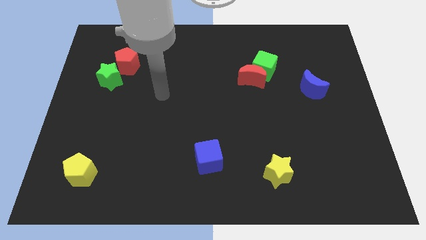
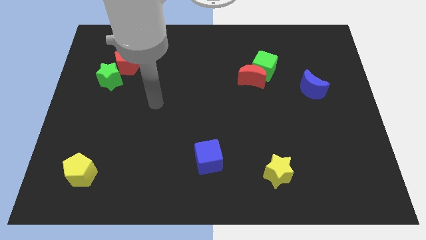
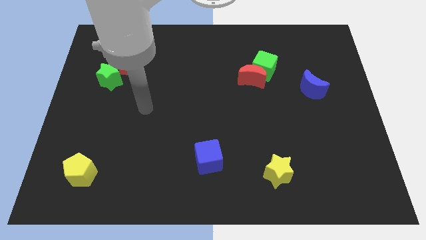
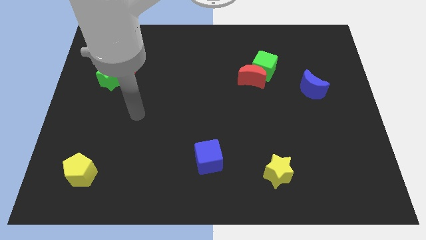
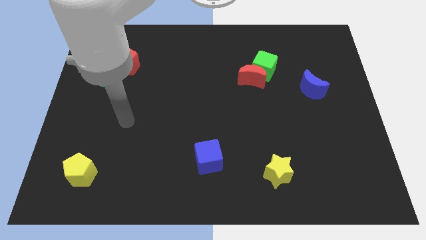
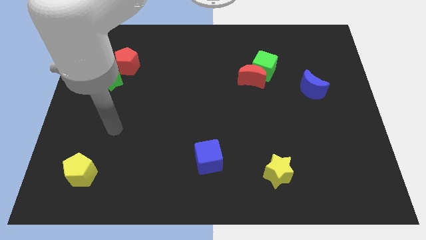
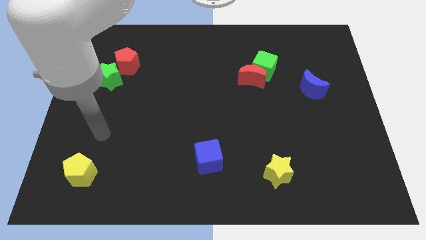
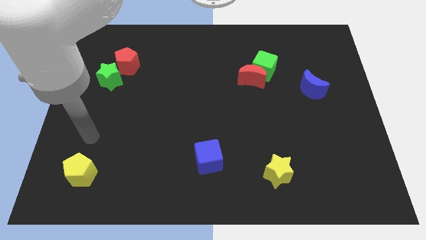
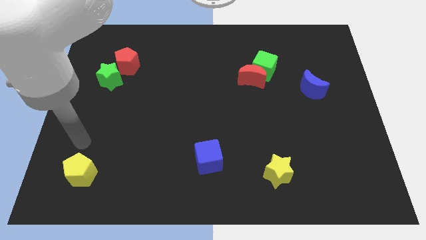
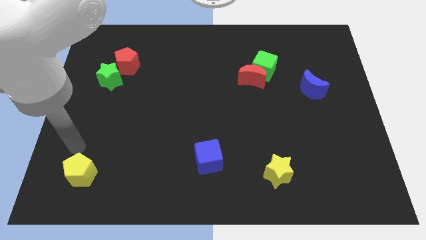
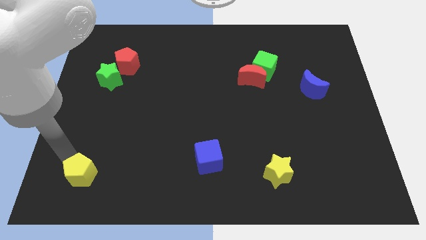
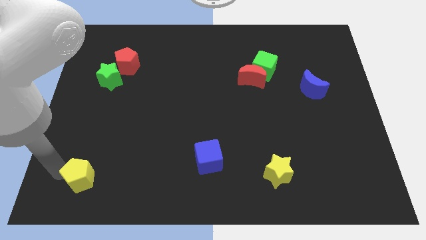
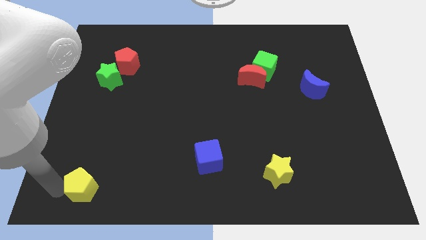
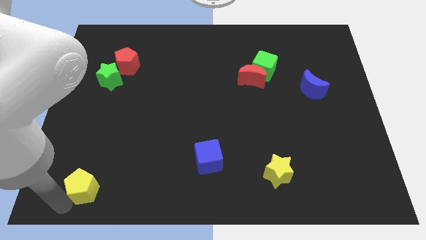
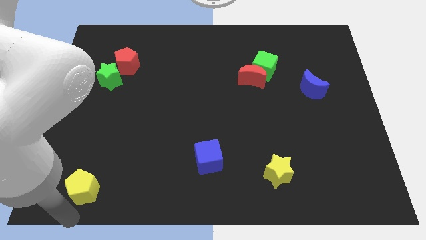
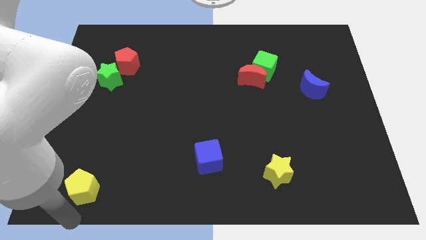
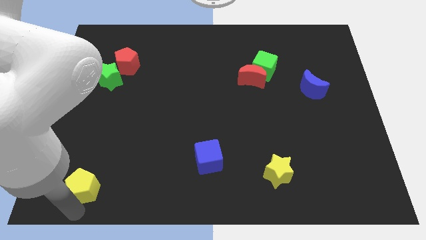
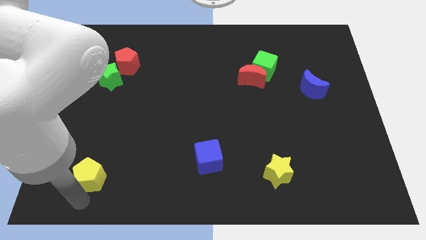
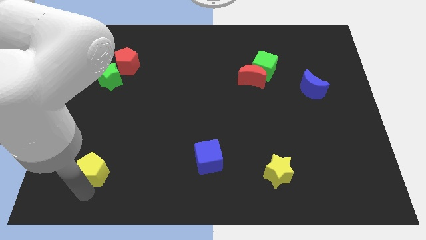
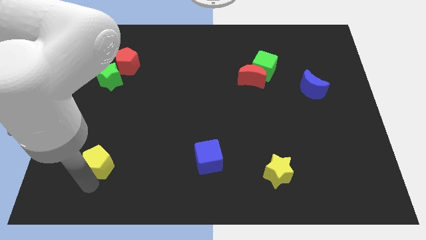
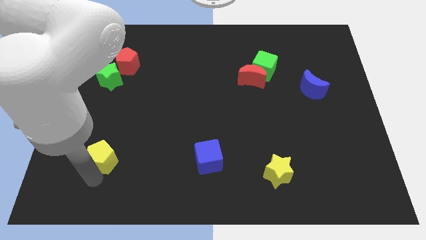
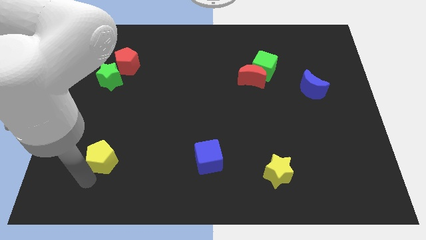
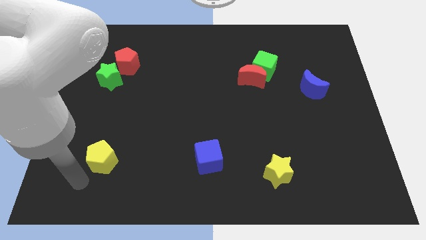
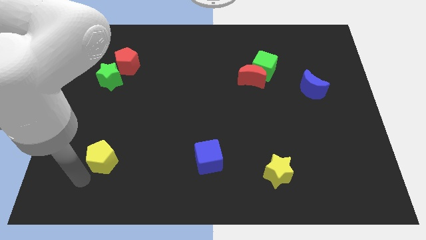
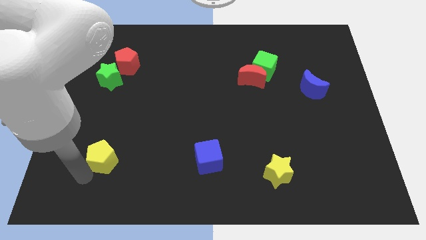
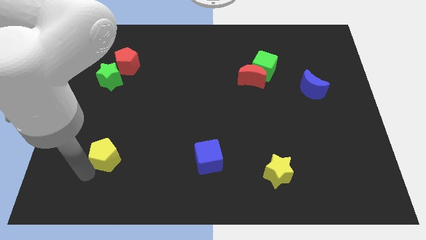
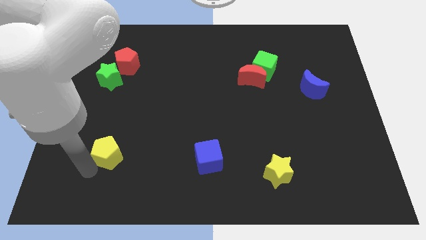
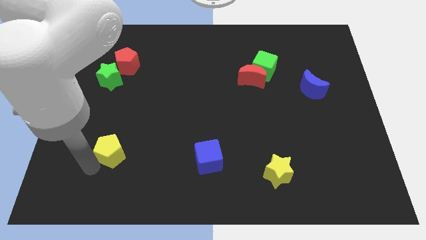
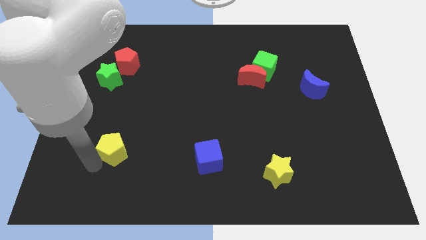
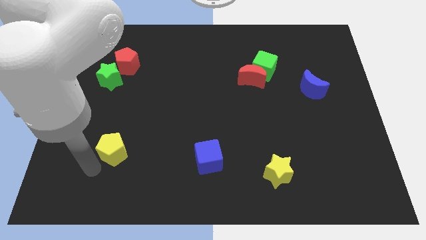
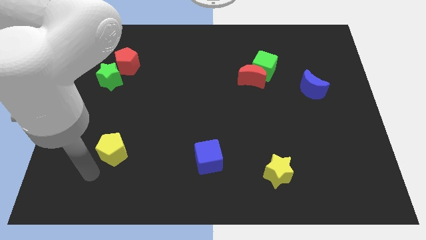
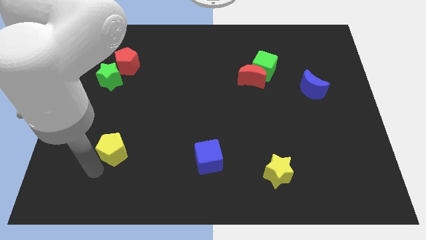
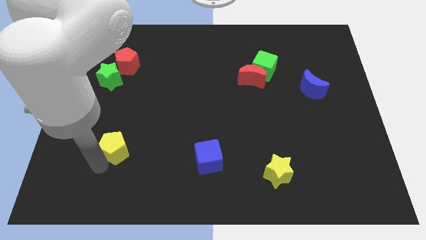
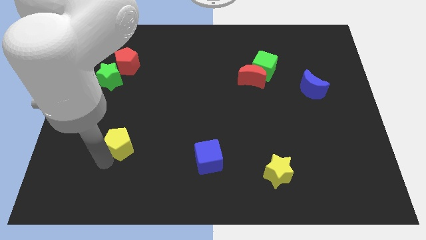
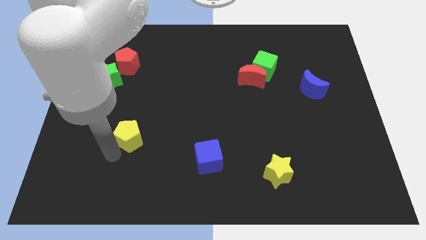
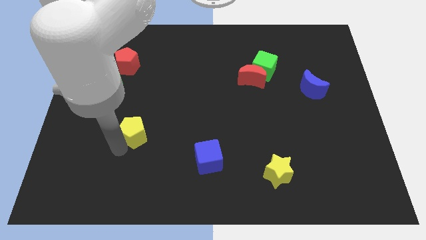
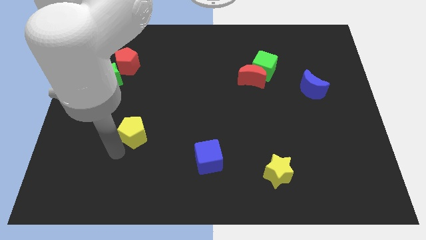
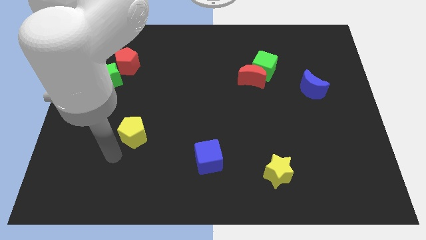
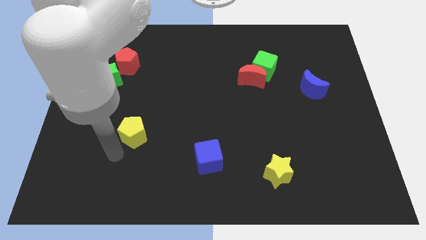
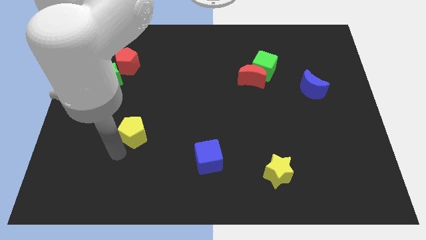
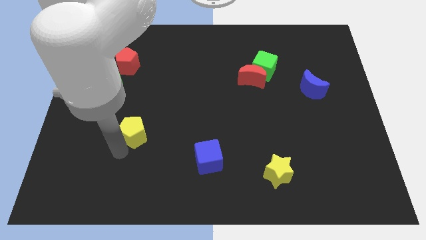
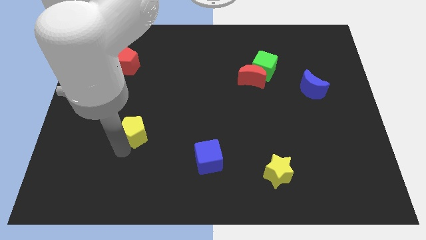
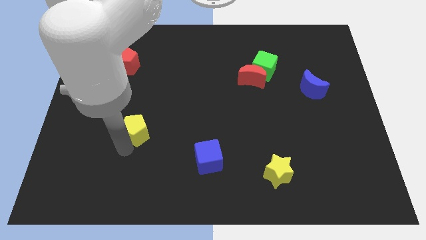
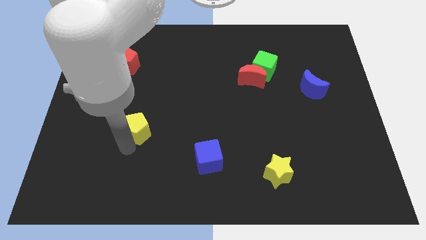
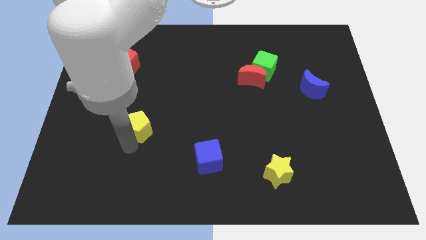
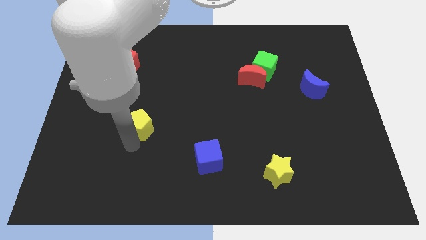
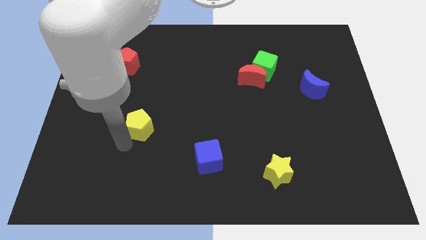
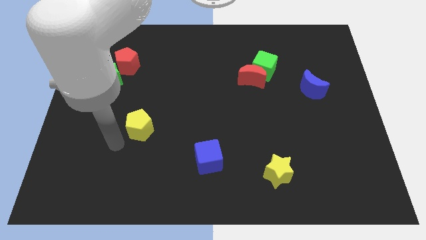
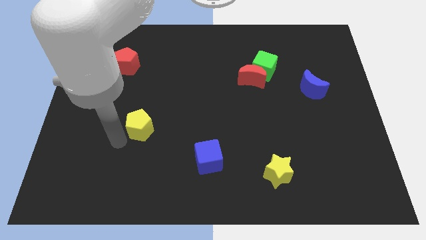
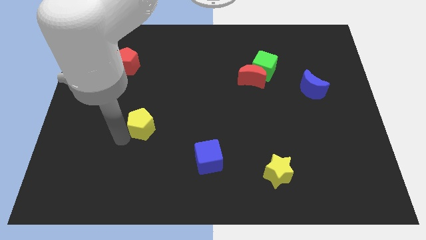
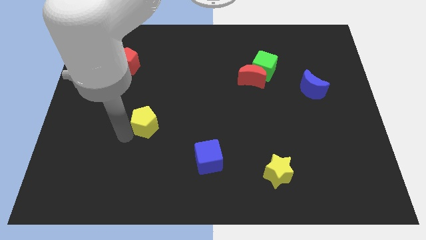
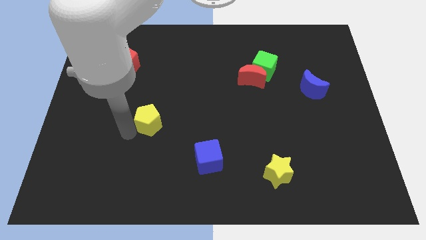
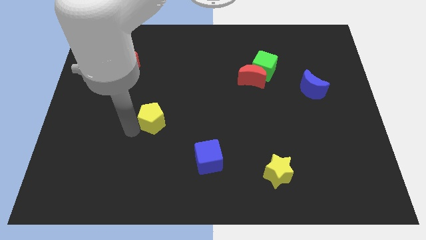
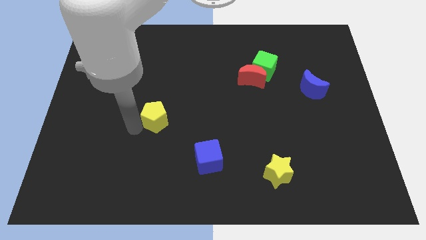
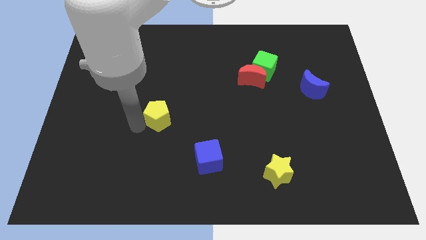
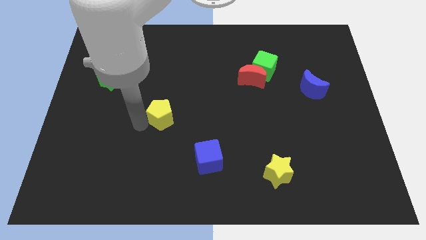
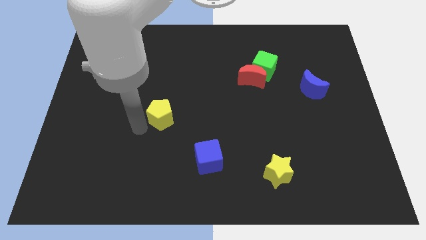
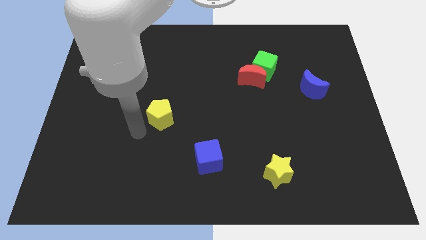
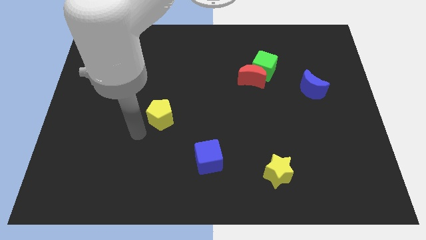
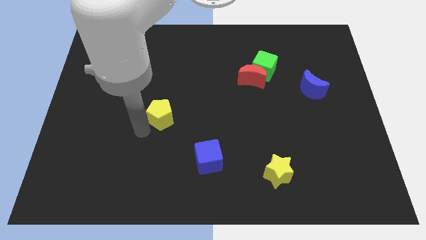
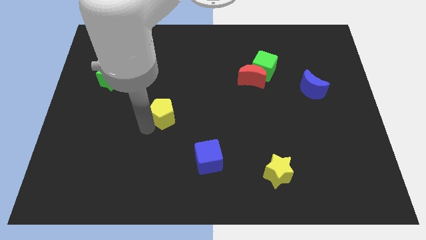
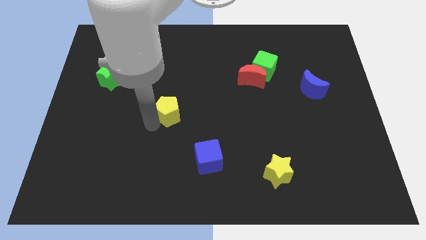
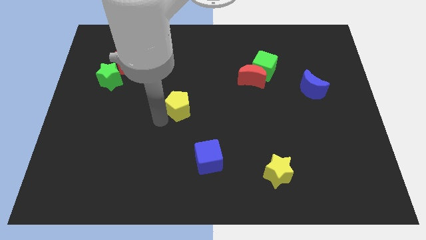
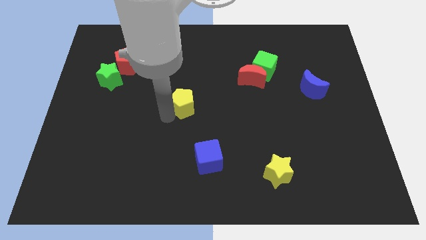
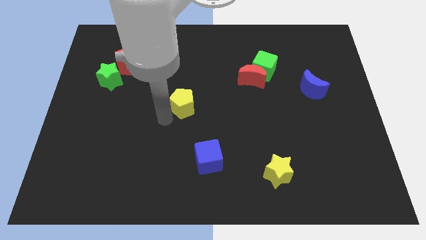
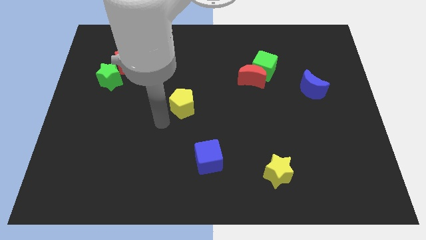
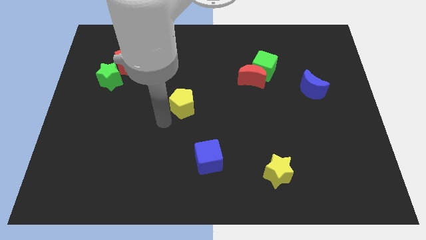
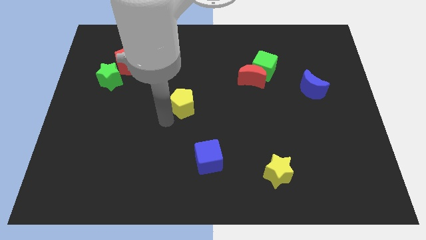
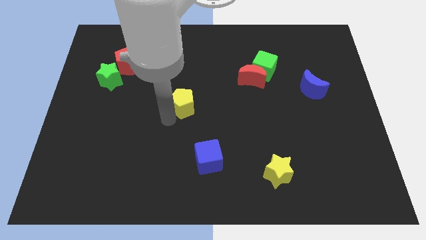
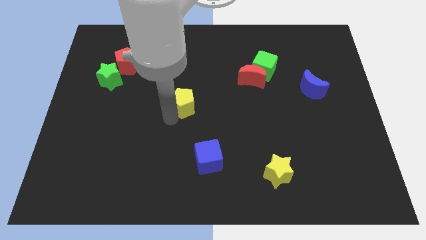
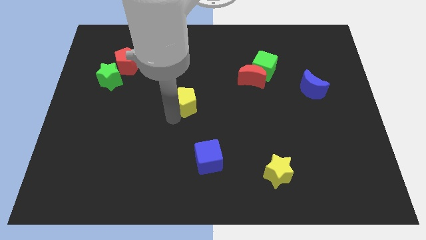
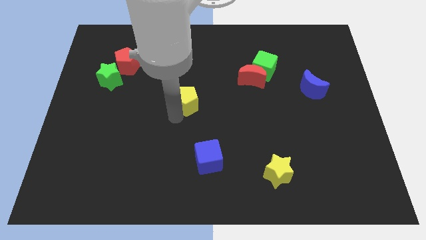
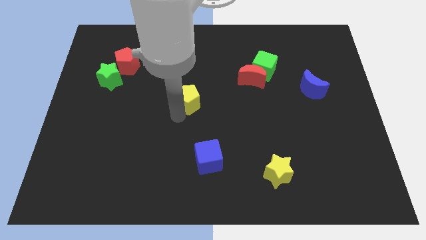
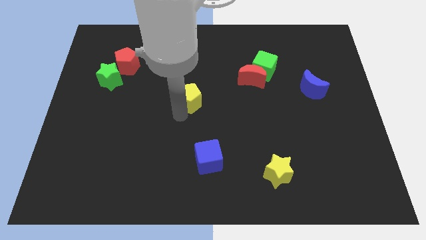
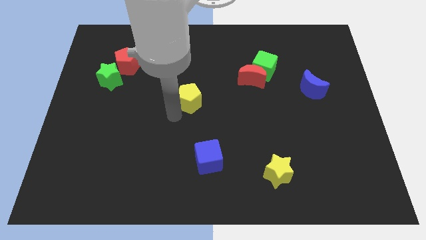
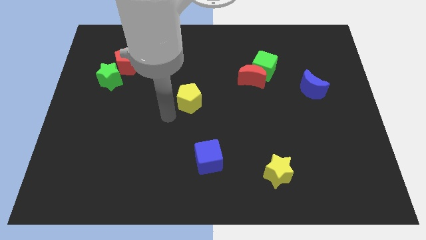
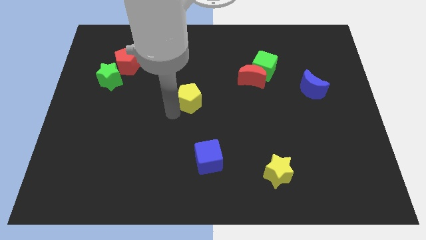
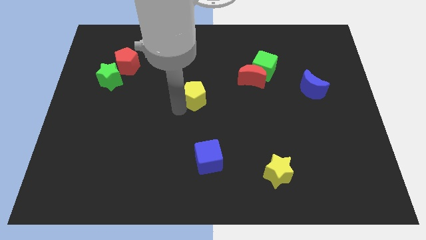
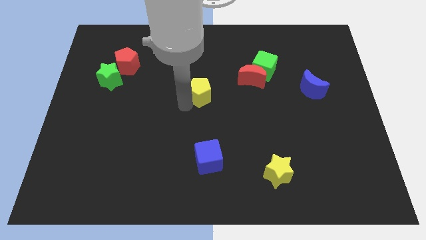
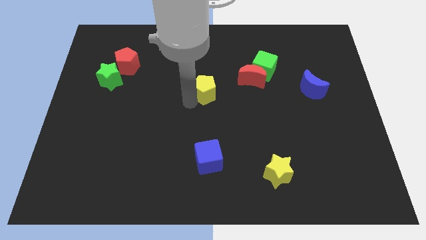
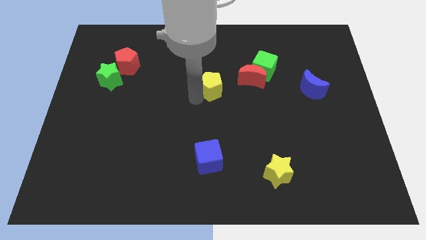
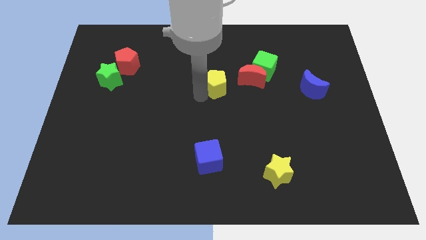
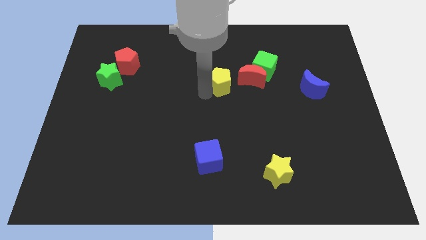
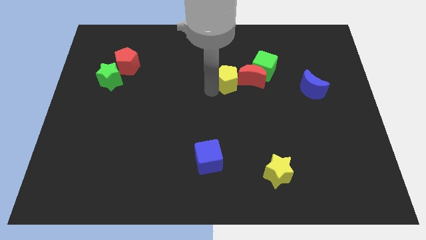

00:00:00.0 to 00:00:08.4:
slide the yellow pentagon close to the red moon
